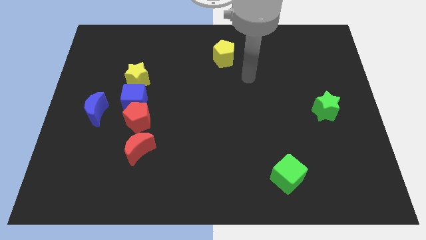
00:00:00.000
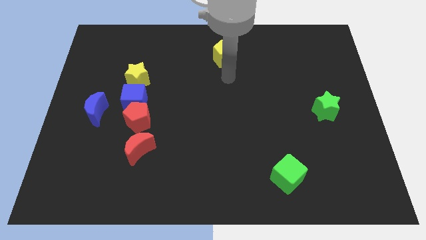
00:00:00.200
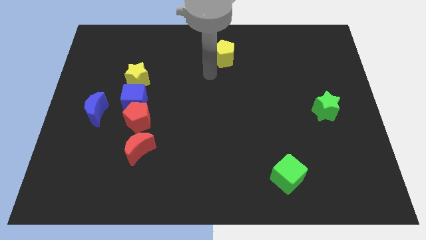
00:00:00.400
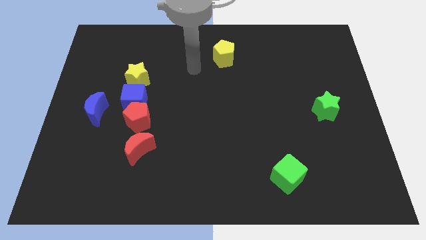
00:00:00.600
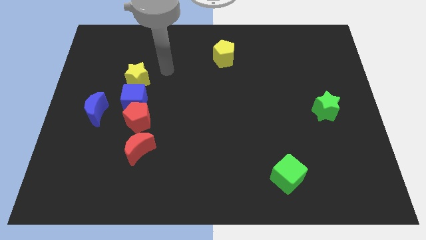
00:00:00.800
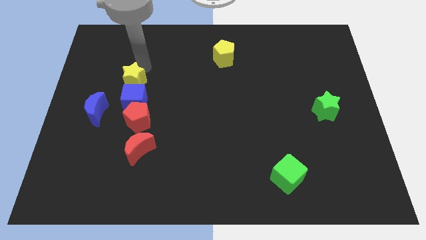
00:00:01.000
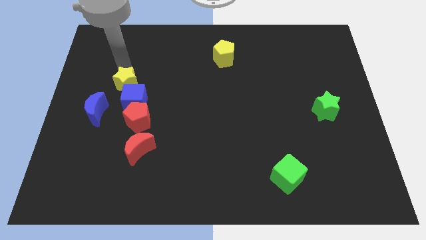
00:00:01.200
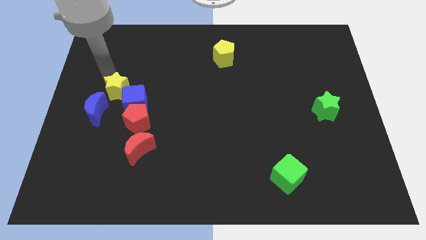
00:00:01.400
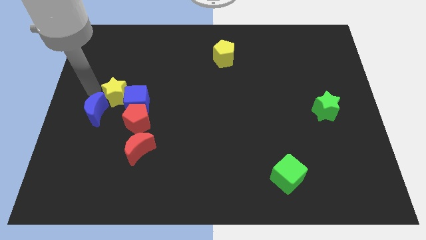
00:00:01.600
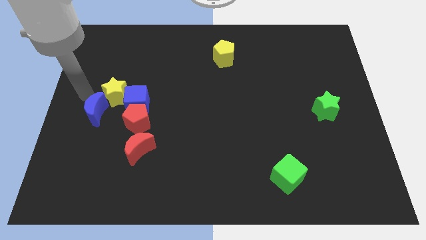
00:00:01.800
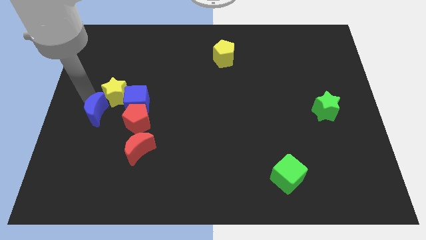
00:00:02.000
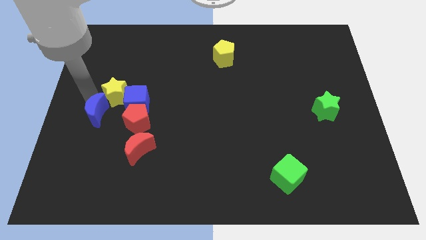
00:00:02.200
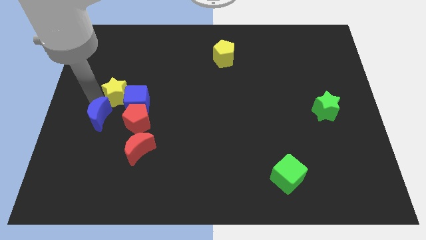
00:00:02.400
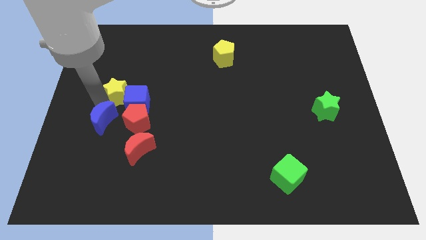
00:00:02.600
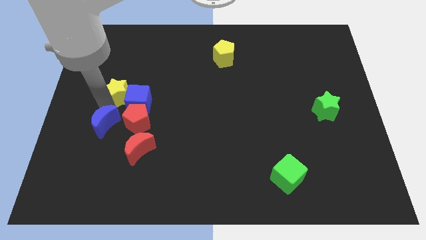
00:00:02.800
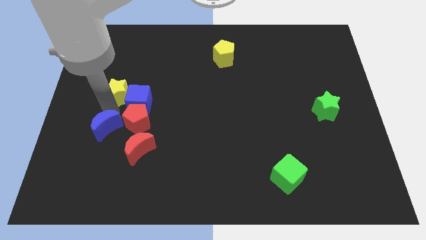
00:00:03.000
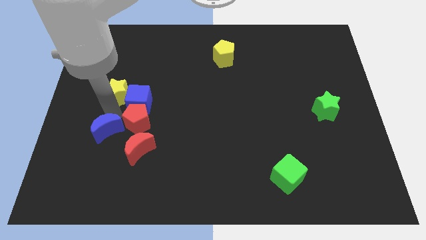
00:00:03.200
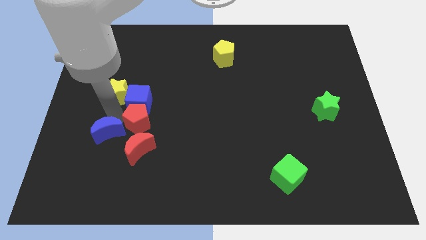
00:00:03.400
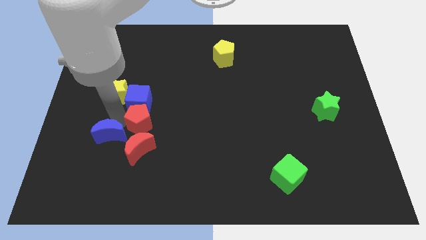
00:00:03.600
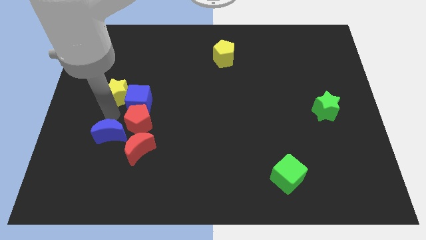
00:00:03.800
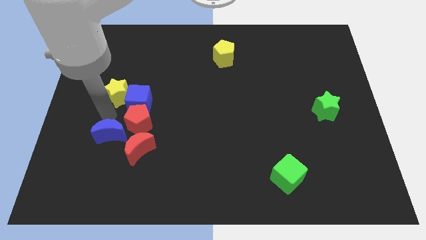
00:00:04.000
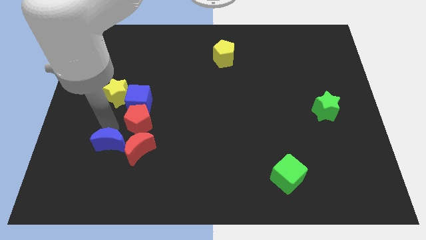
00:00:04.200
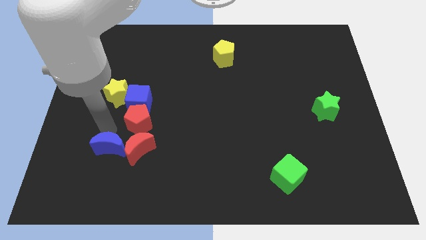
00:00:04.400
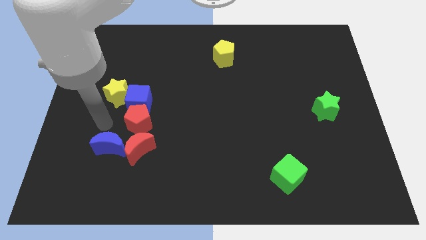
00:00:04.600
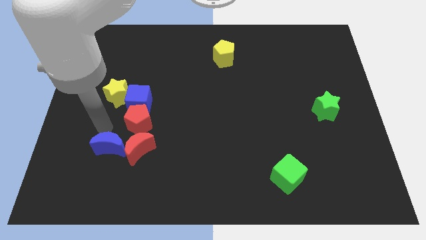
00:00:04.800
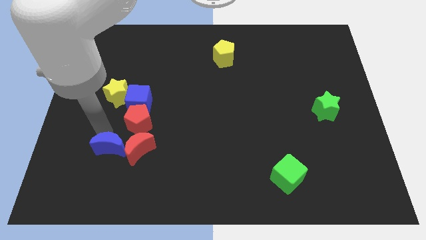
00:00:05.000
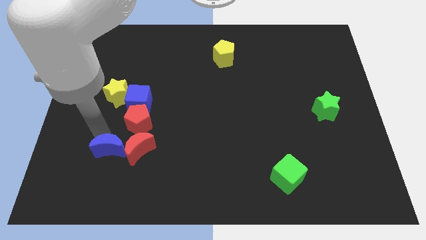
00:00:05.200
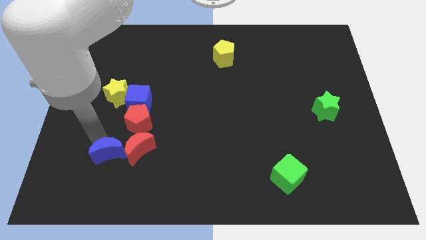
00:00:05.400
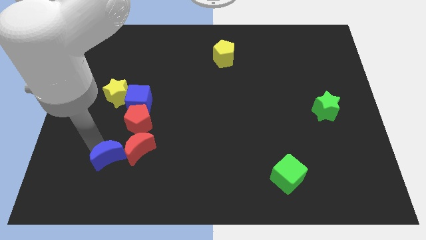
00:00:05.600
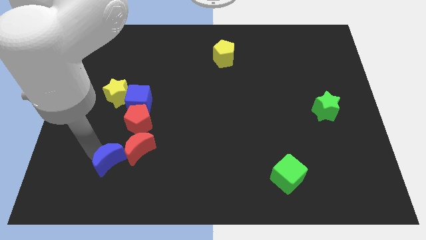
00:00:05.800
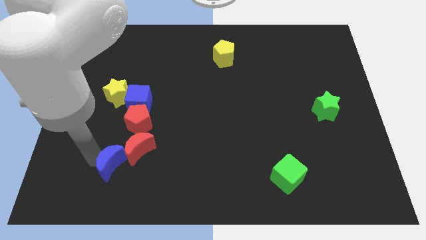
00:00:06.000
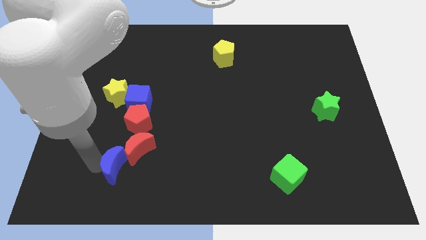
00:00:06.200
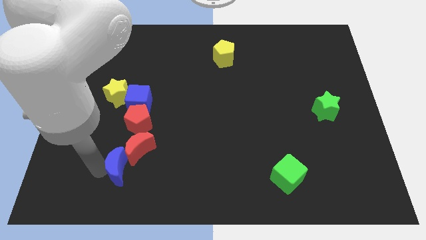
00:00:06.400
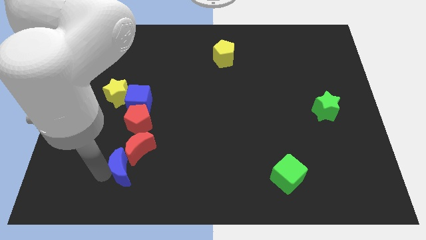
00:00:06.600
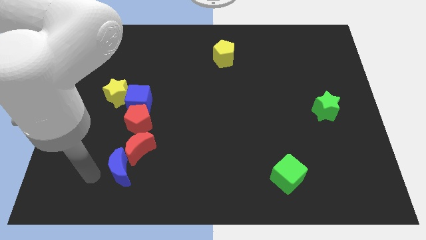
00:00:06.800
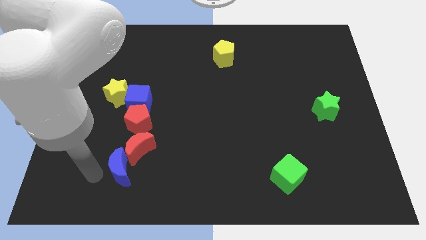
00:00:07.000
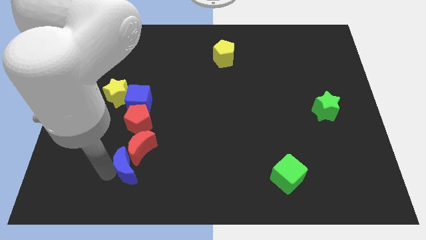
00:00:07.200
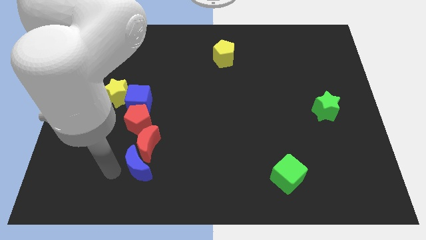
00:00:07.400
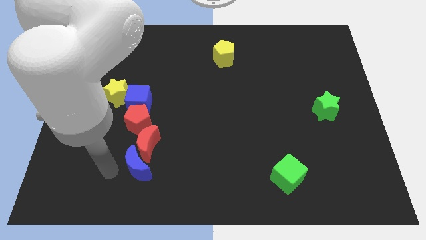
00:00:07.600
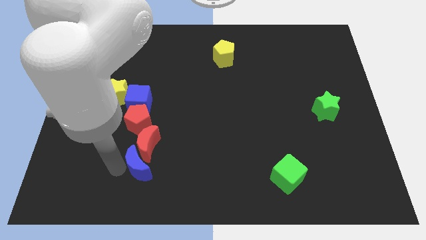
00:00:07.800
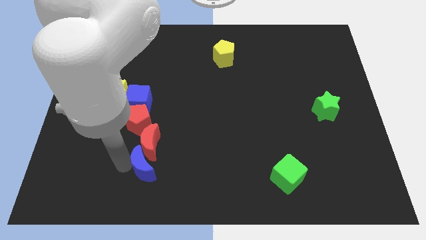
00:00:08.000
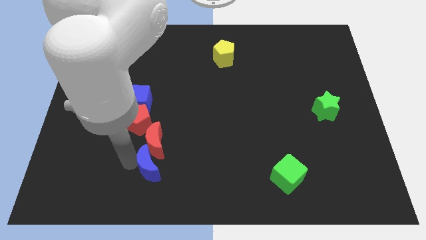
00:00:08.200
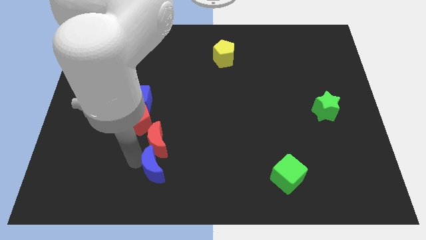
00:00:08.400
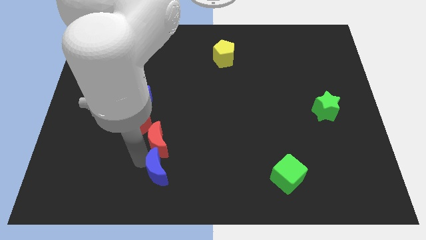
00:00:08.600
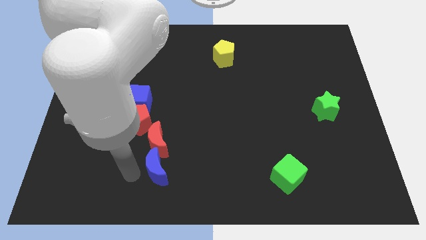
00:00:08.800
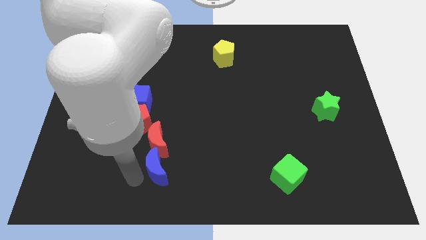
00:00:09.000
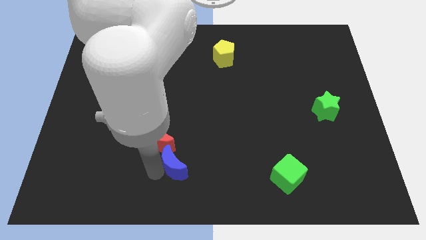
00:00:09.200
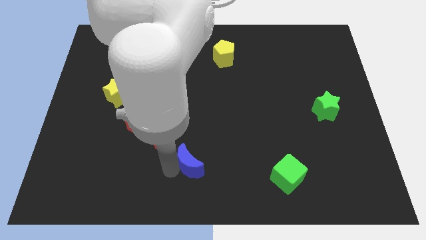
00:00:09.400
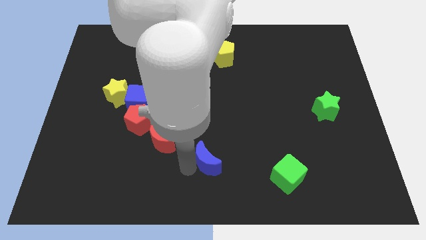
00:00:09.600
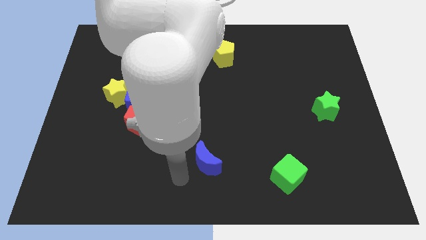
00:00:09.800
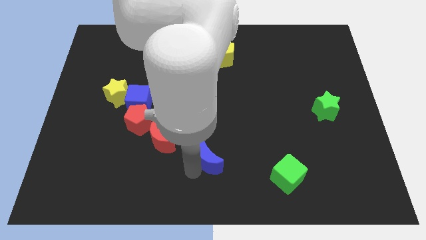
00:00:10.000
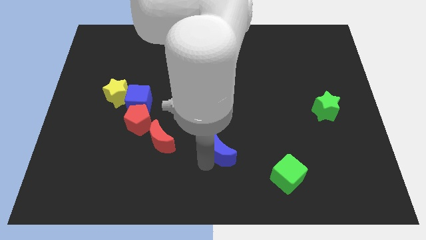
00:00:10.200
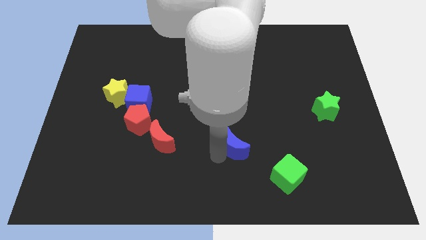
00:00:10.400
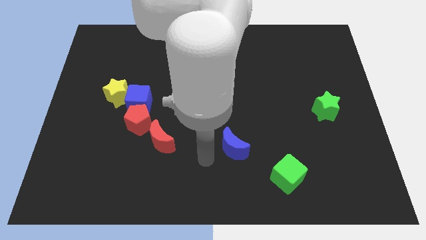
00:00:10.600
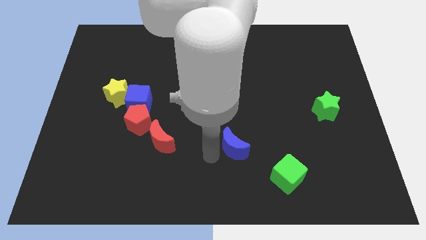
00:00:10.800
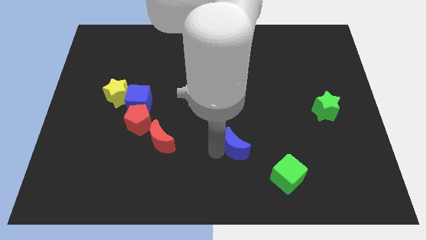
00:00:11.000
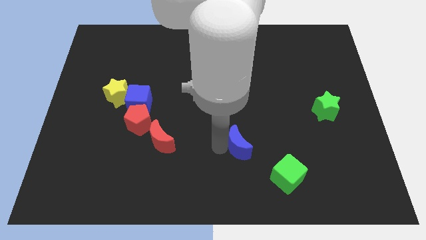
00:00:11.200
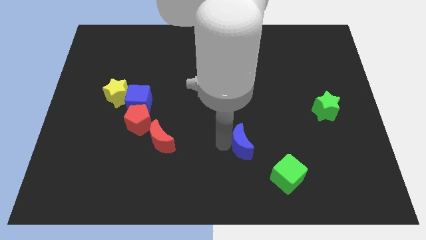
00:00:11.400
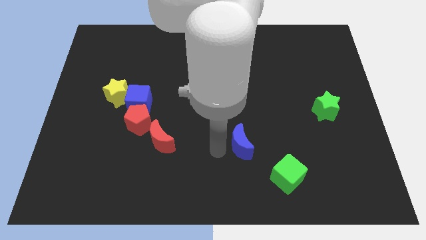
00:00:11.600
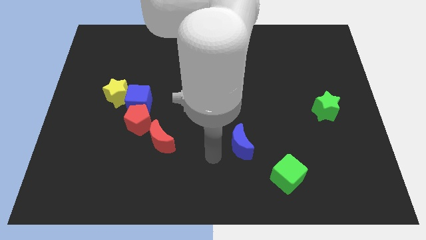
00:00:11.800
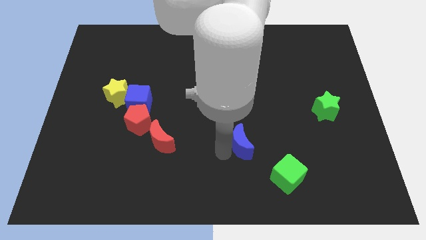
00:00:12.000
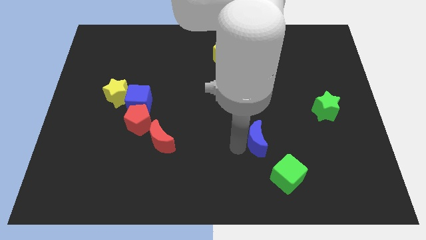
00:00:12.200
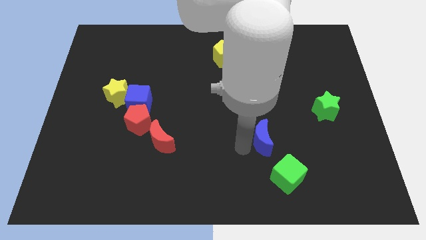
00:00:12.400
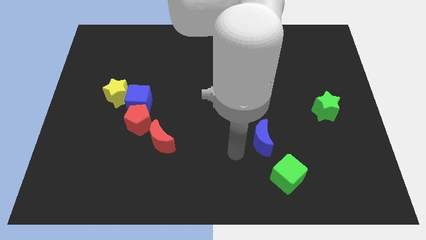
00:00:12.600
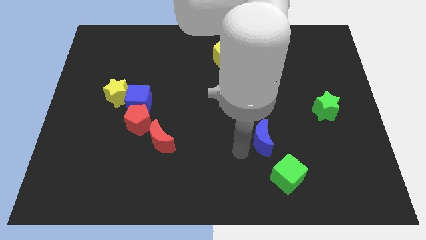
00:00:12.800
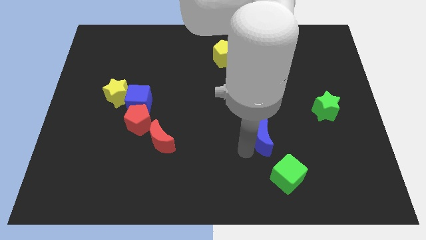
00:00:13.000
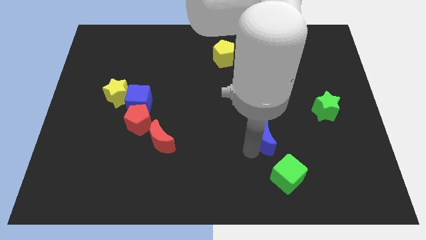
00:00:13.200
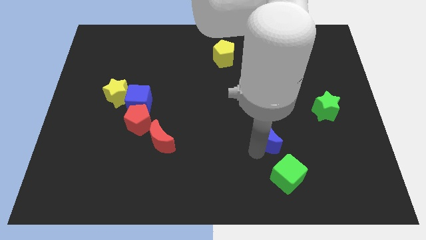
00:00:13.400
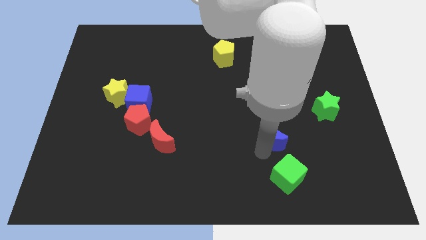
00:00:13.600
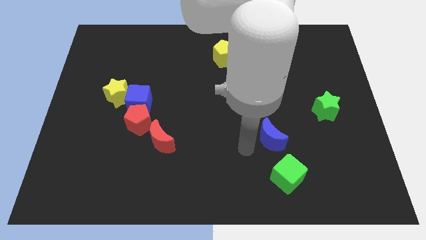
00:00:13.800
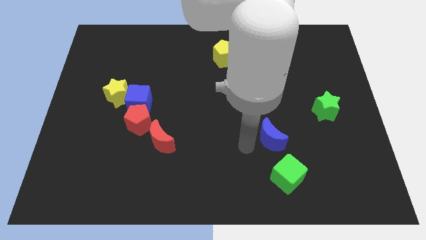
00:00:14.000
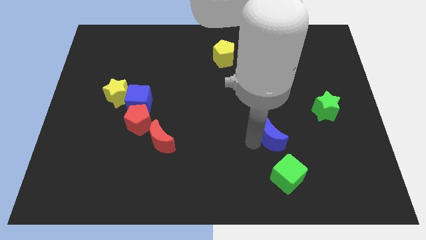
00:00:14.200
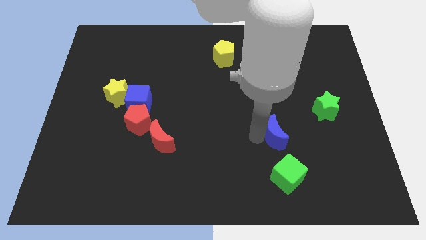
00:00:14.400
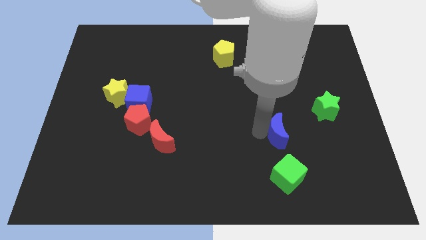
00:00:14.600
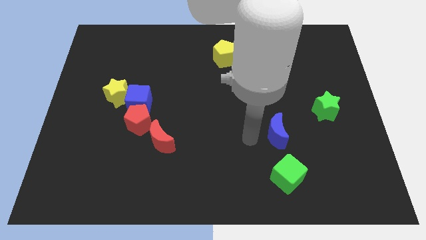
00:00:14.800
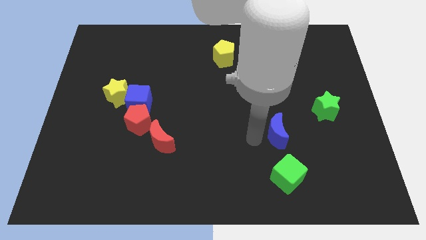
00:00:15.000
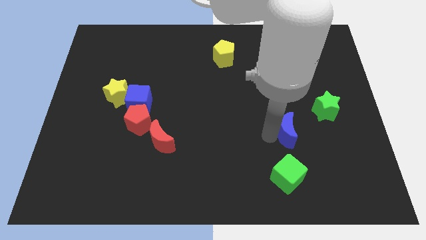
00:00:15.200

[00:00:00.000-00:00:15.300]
push the blue moon to the bottom left of the green star
